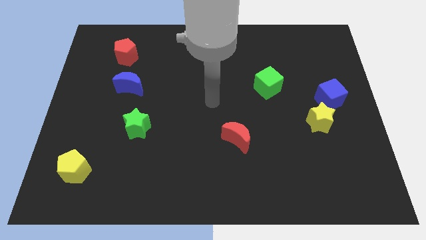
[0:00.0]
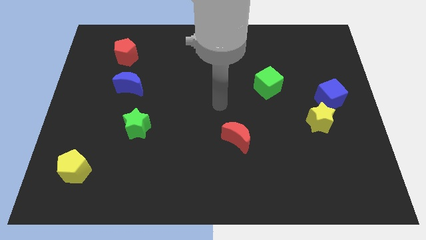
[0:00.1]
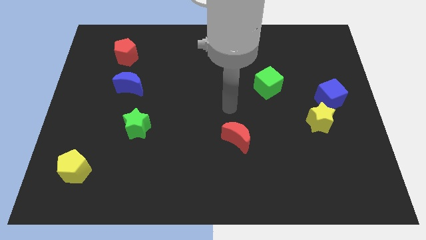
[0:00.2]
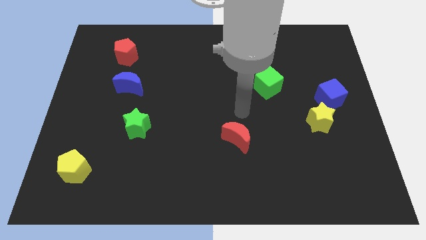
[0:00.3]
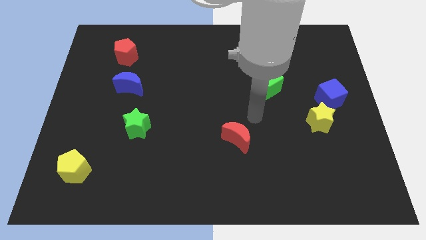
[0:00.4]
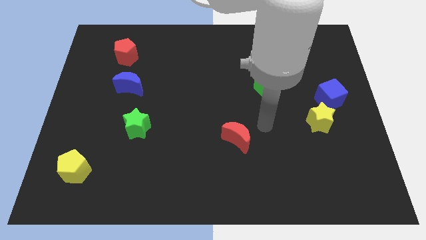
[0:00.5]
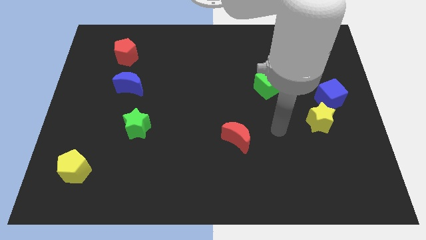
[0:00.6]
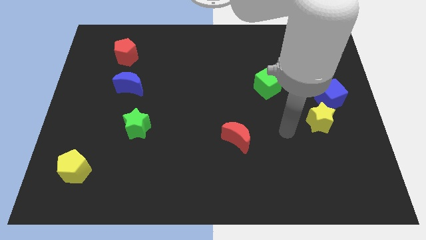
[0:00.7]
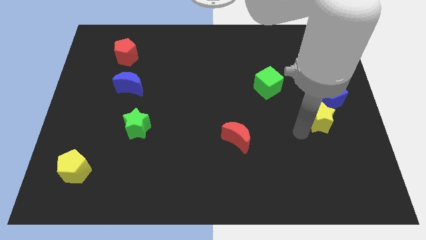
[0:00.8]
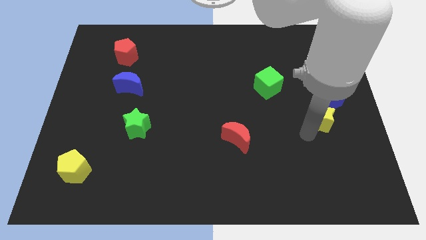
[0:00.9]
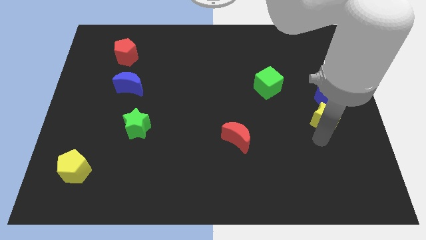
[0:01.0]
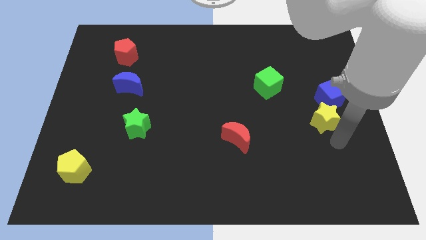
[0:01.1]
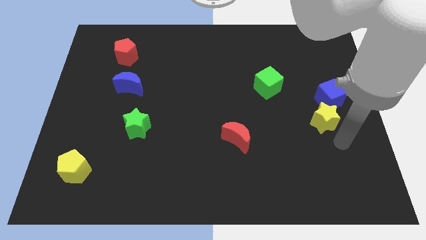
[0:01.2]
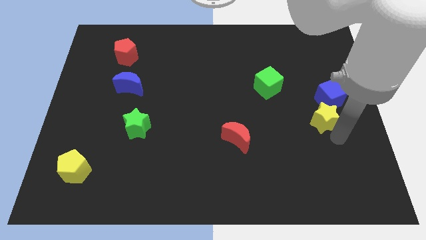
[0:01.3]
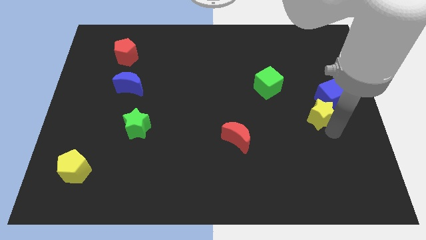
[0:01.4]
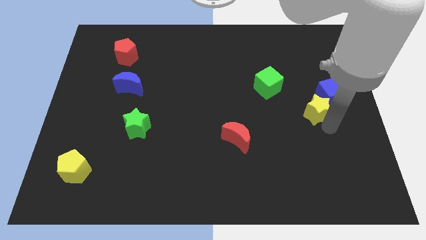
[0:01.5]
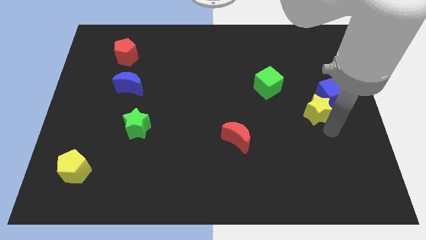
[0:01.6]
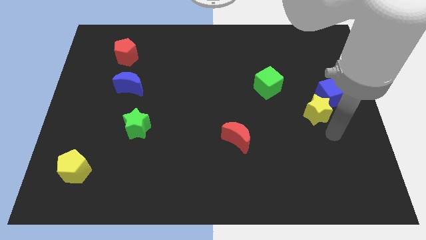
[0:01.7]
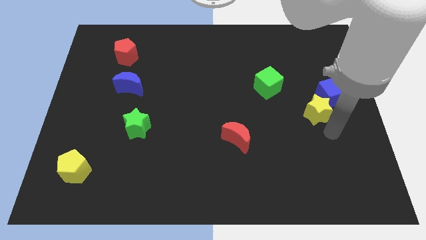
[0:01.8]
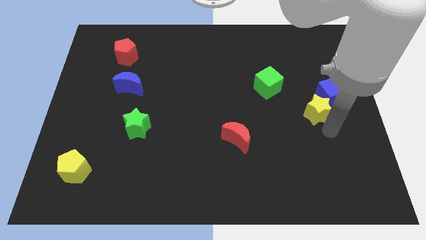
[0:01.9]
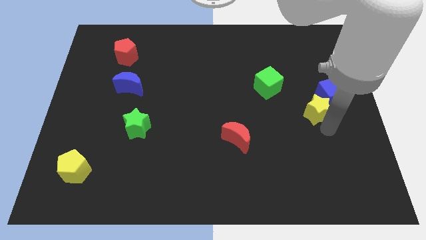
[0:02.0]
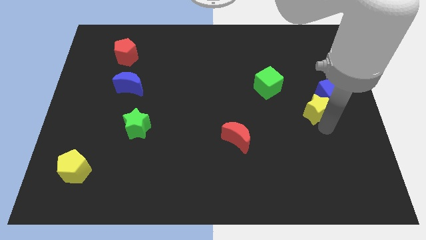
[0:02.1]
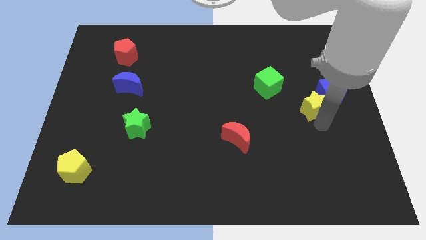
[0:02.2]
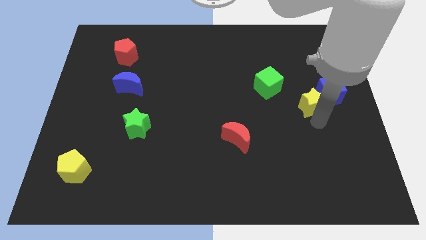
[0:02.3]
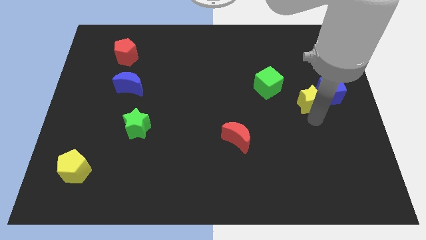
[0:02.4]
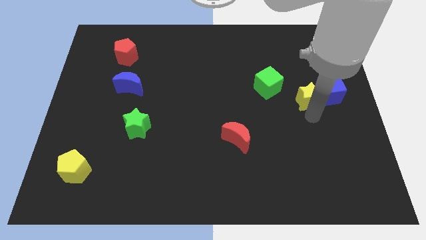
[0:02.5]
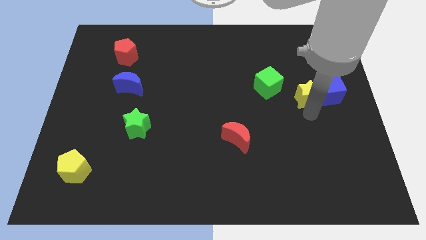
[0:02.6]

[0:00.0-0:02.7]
push the yellow star a little bit upwards

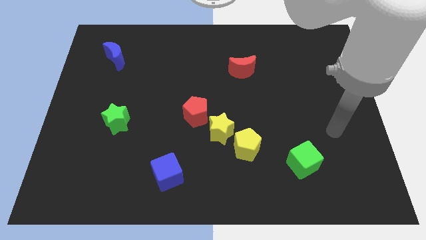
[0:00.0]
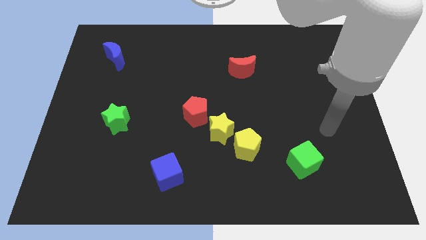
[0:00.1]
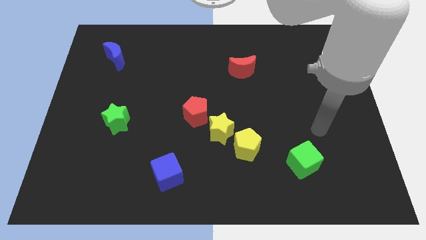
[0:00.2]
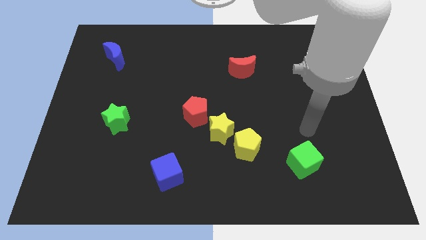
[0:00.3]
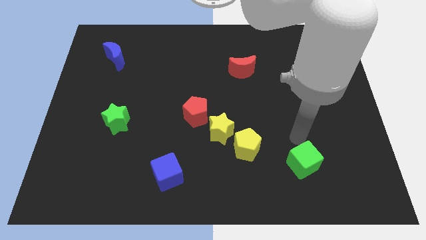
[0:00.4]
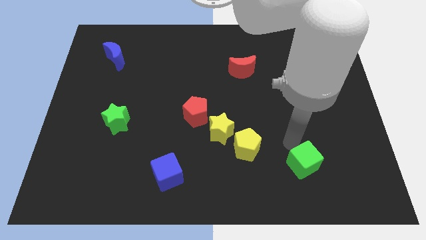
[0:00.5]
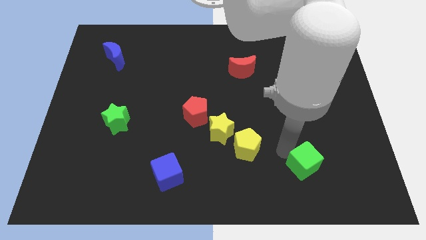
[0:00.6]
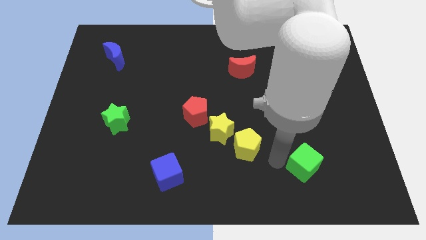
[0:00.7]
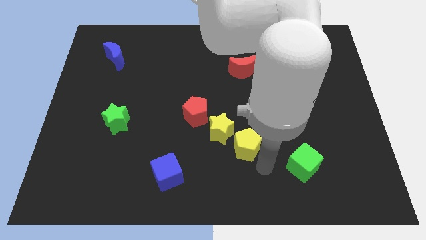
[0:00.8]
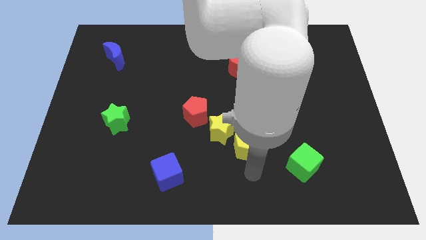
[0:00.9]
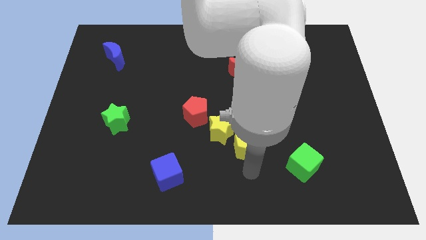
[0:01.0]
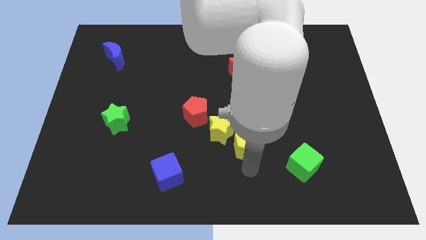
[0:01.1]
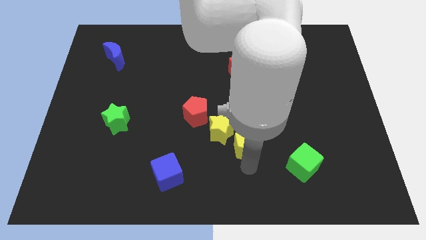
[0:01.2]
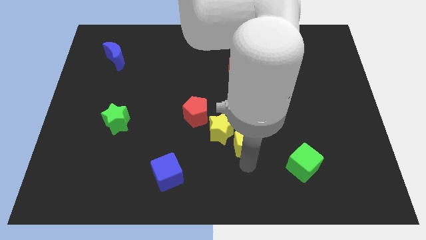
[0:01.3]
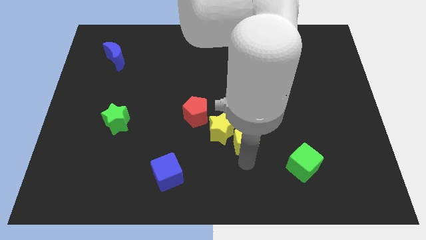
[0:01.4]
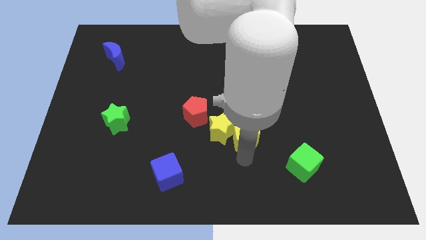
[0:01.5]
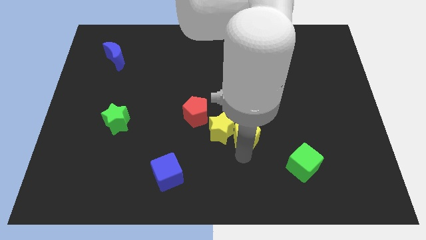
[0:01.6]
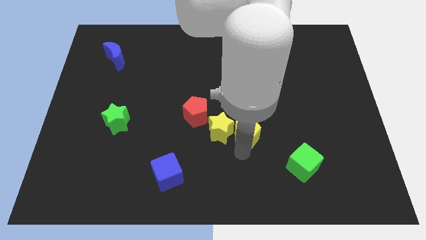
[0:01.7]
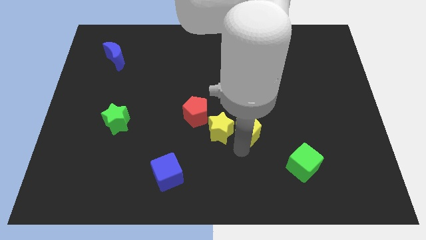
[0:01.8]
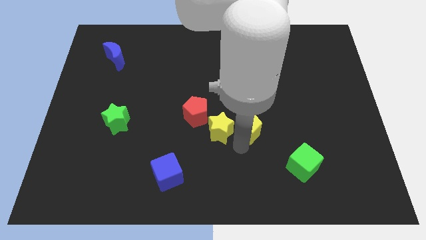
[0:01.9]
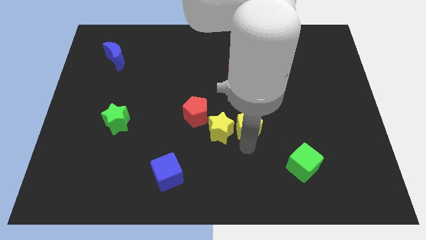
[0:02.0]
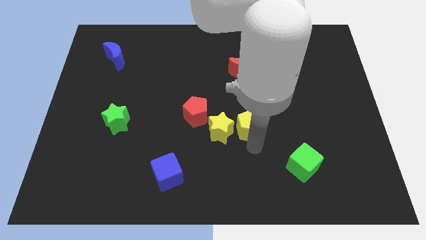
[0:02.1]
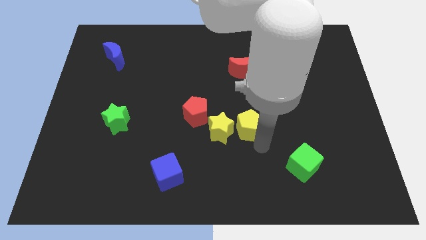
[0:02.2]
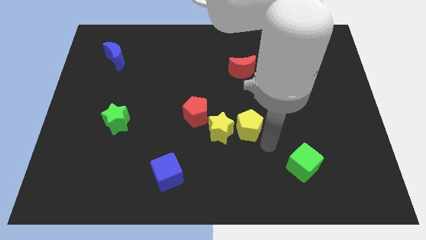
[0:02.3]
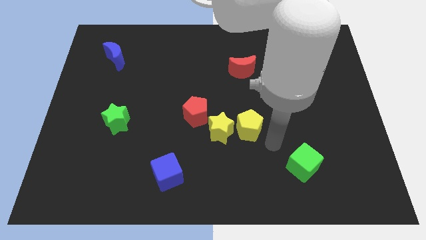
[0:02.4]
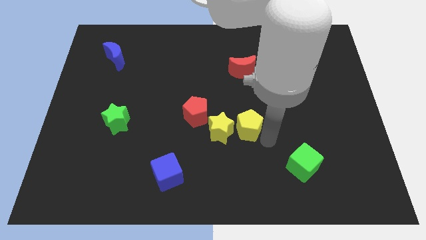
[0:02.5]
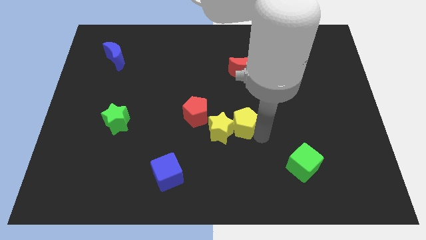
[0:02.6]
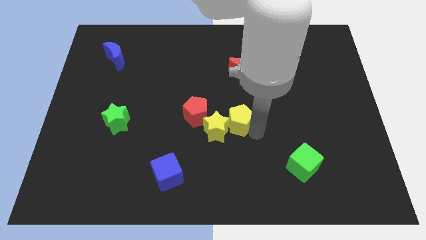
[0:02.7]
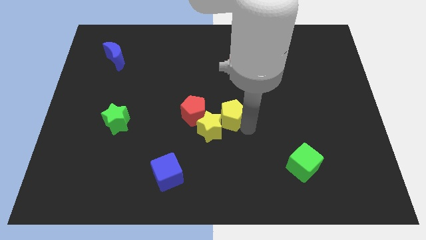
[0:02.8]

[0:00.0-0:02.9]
move the yellow pentagon diagonally up and to the left a little bit

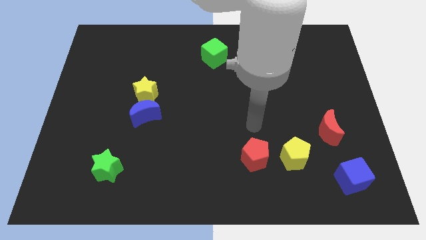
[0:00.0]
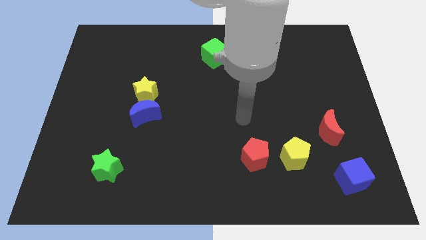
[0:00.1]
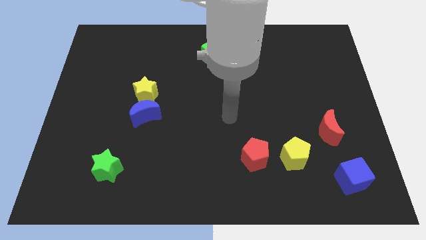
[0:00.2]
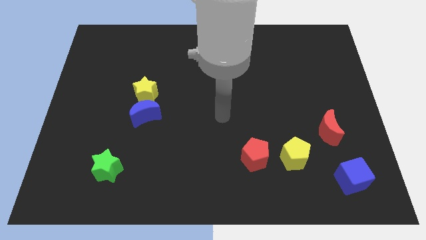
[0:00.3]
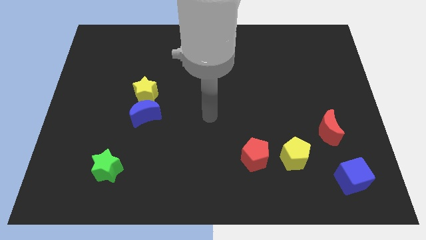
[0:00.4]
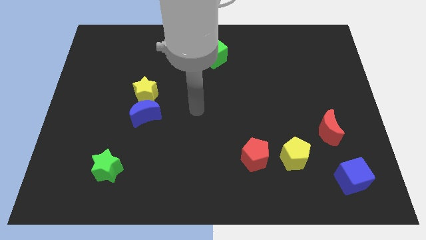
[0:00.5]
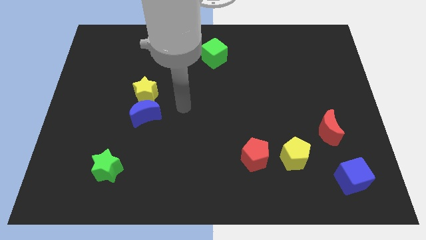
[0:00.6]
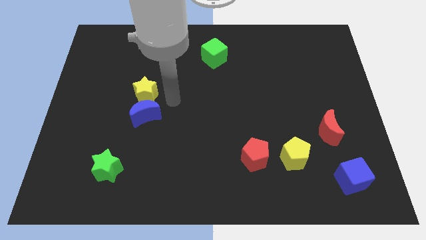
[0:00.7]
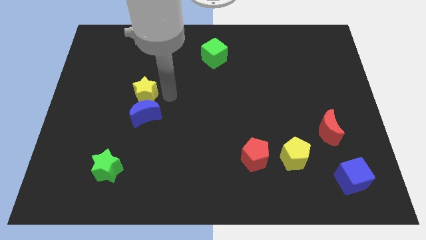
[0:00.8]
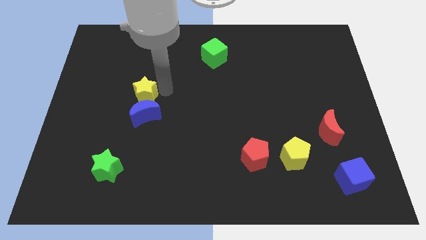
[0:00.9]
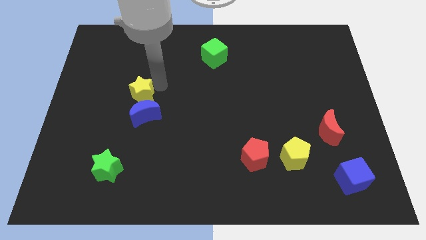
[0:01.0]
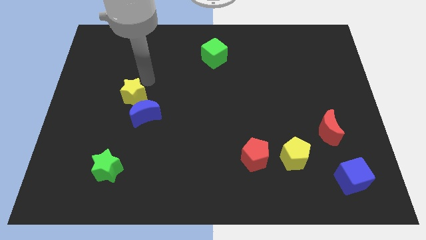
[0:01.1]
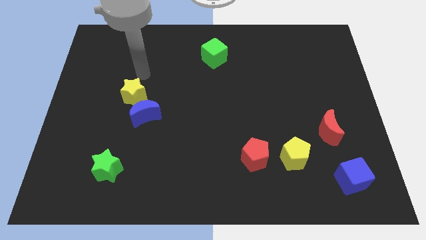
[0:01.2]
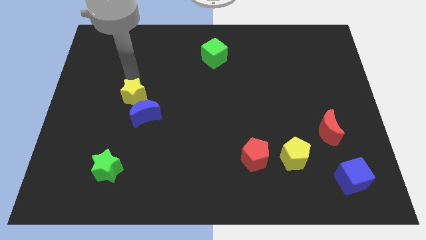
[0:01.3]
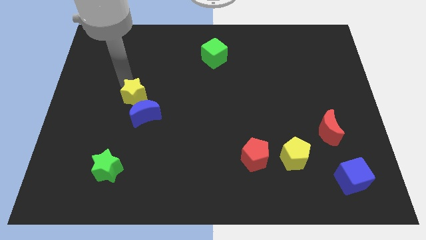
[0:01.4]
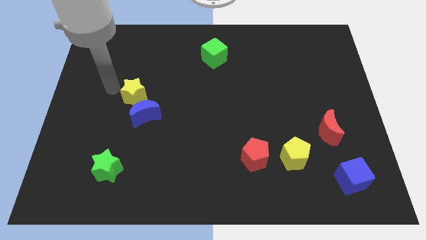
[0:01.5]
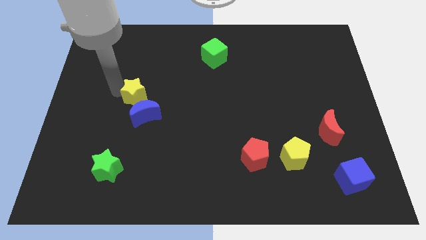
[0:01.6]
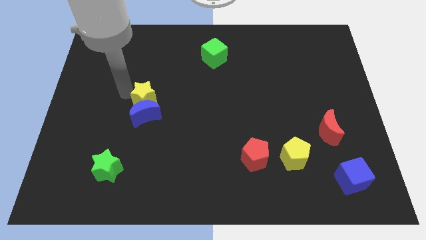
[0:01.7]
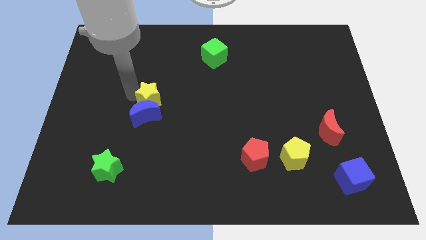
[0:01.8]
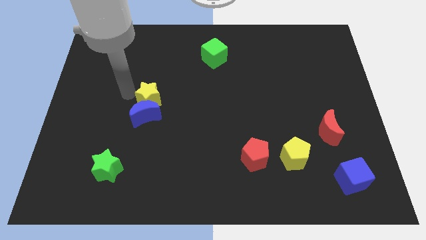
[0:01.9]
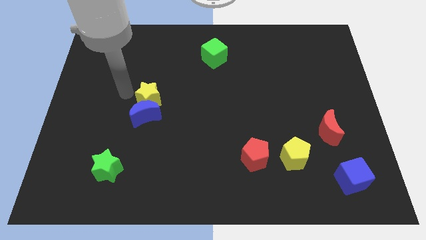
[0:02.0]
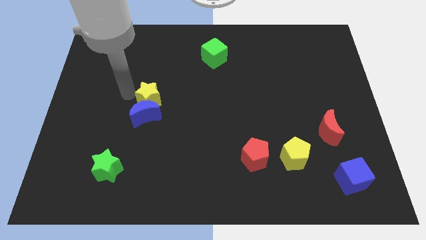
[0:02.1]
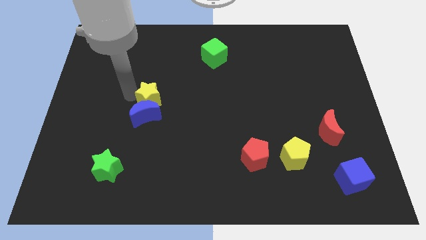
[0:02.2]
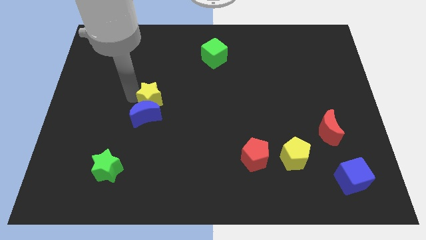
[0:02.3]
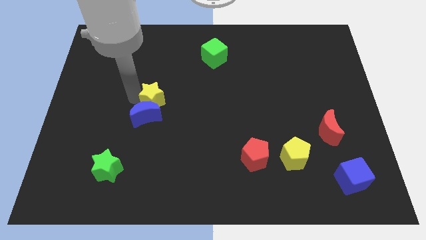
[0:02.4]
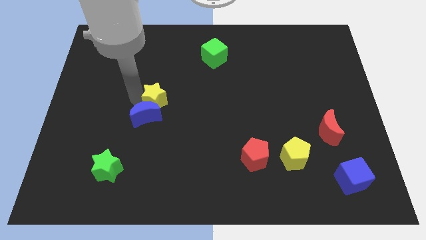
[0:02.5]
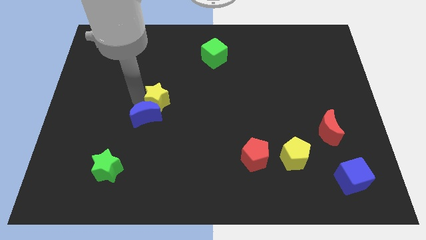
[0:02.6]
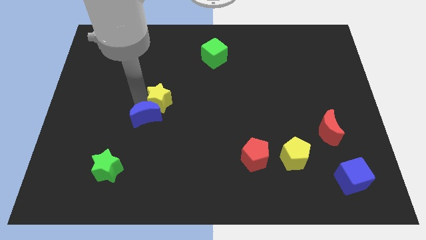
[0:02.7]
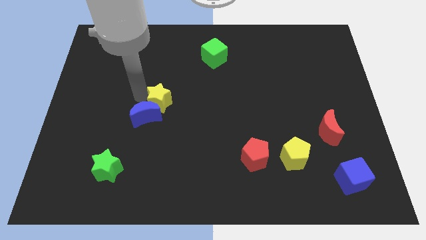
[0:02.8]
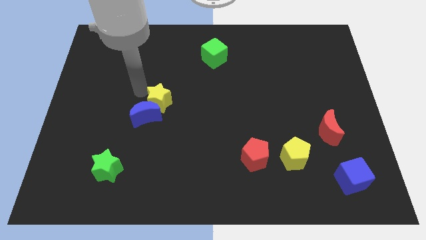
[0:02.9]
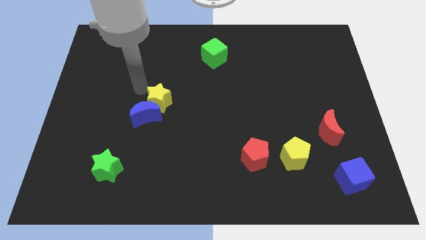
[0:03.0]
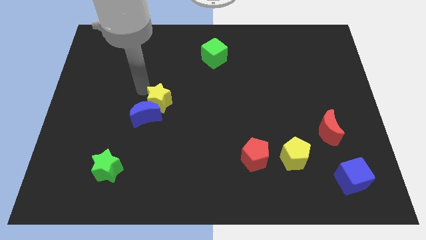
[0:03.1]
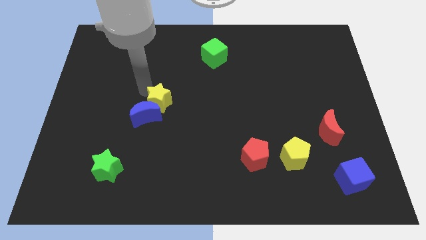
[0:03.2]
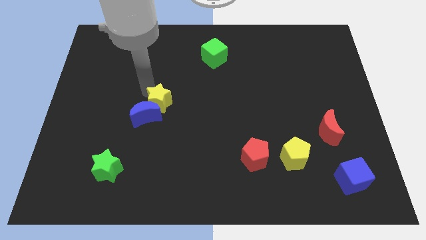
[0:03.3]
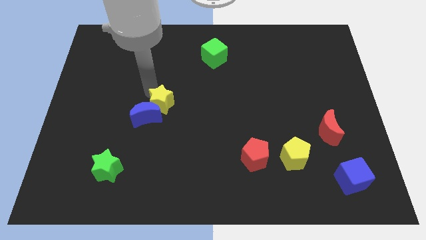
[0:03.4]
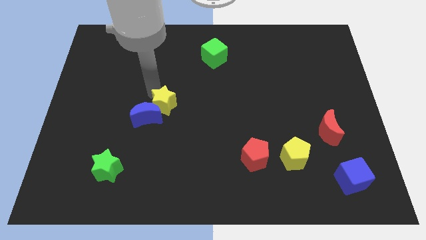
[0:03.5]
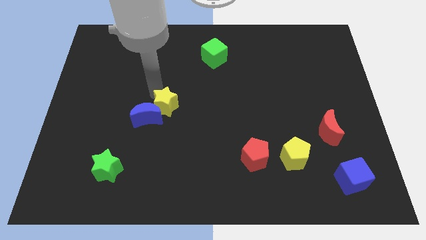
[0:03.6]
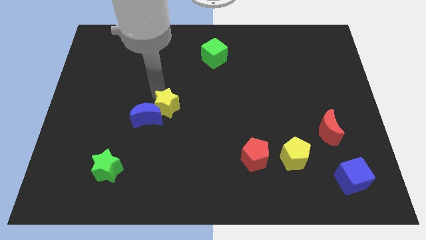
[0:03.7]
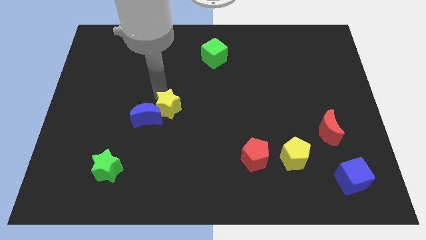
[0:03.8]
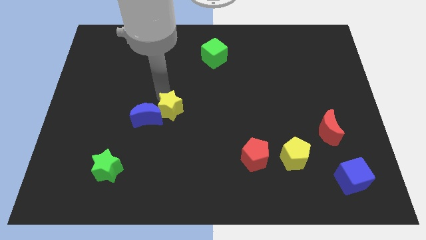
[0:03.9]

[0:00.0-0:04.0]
slightly push the yellow star downwards and then right
